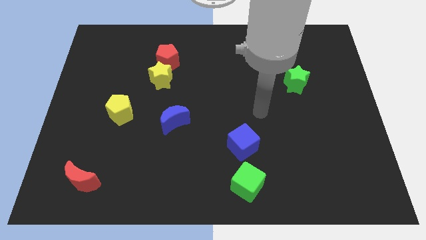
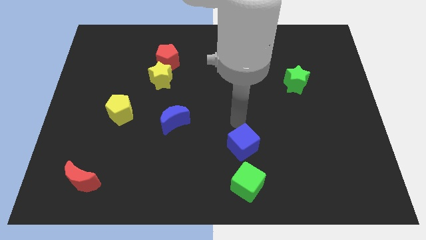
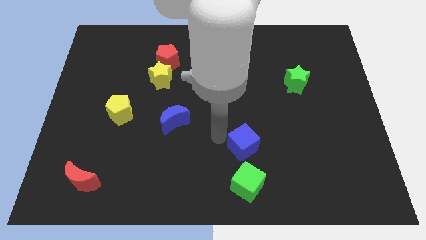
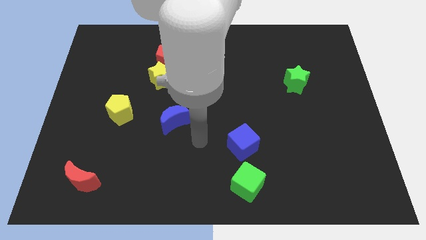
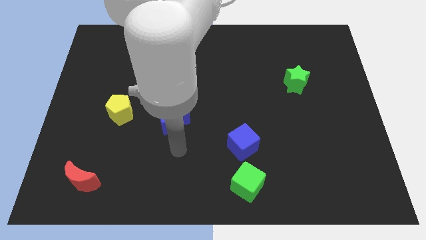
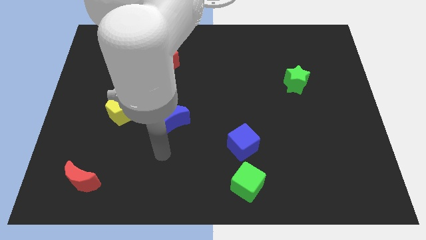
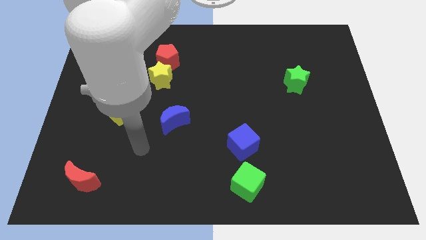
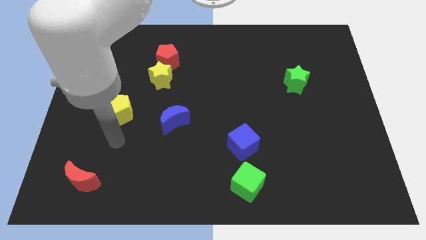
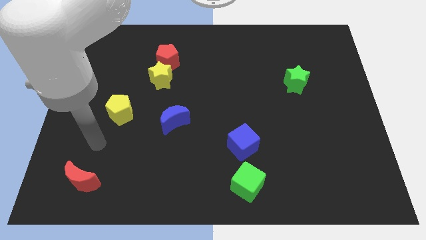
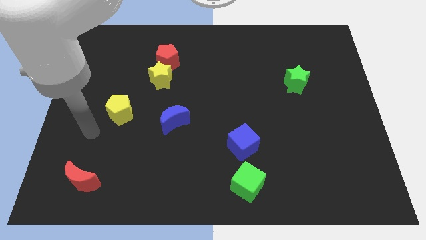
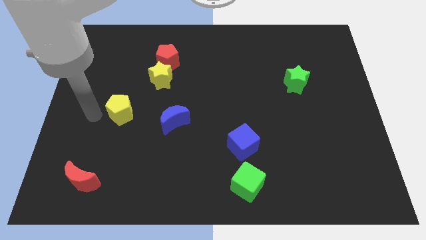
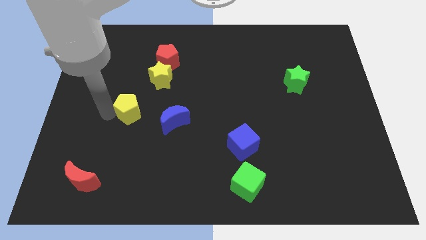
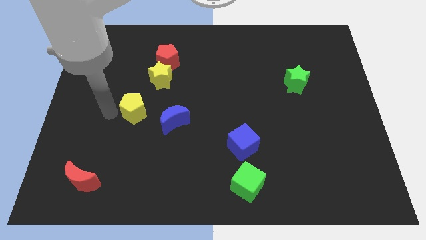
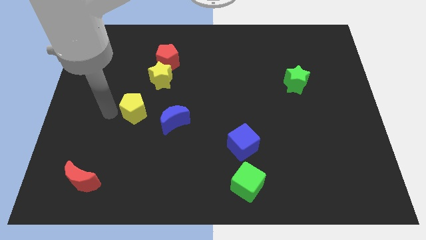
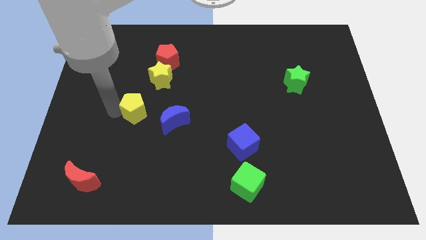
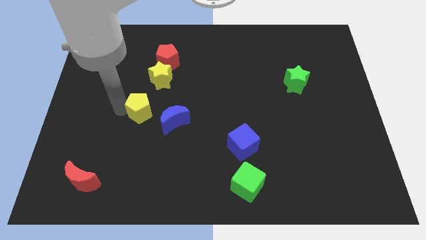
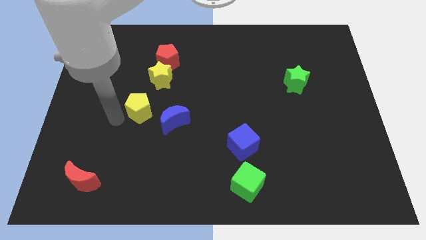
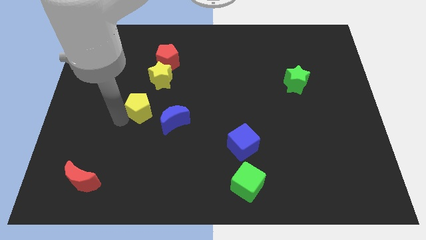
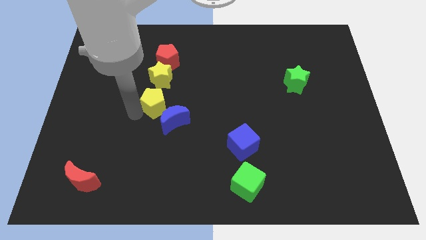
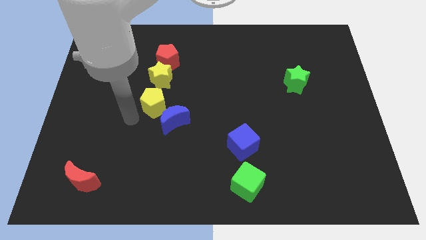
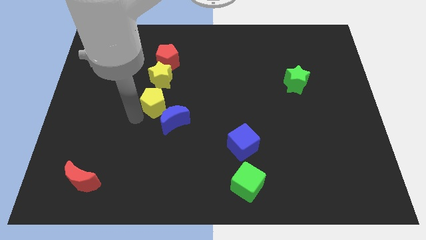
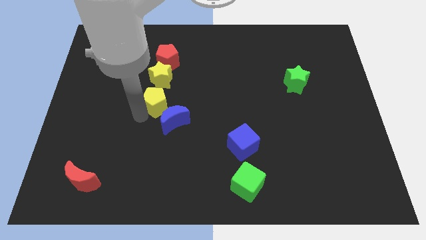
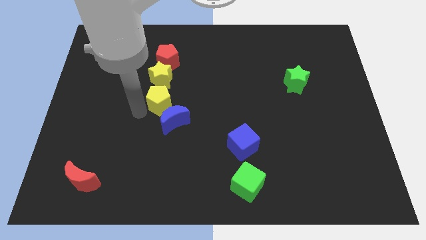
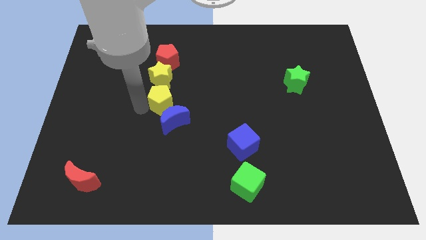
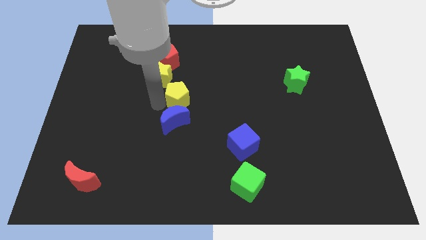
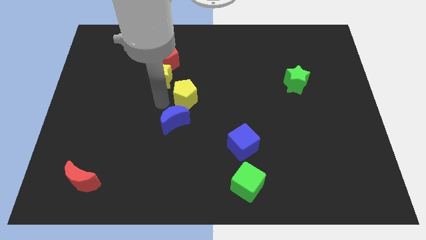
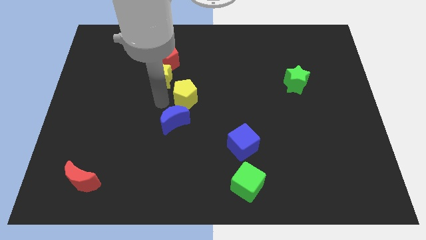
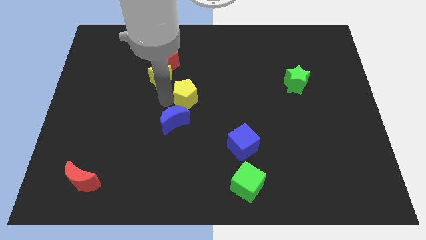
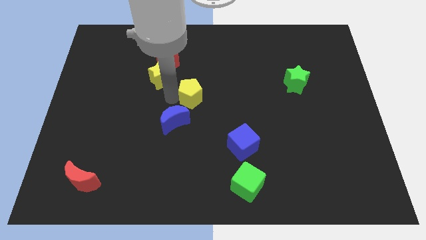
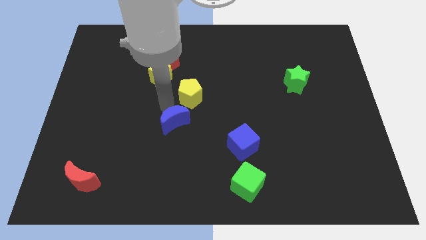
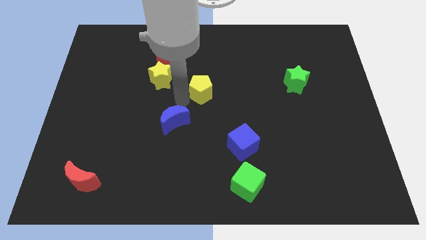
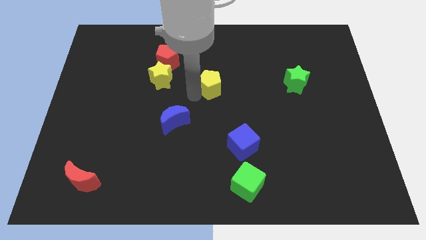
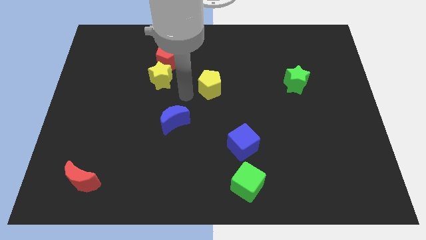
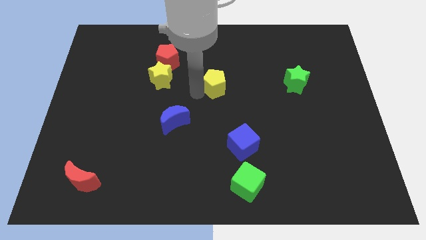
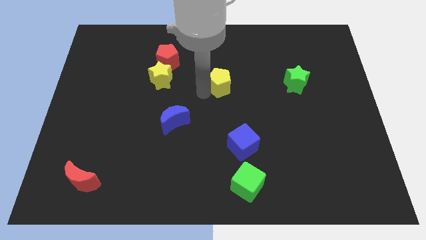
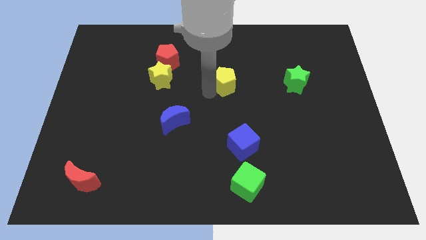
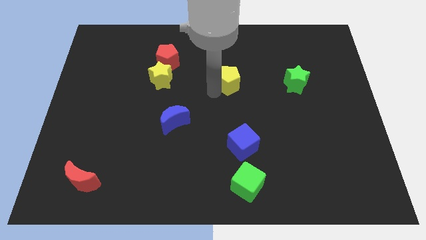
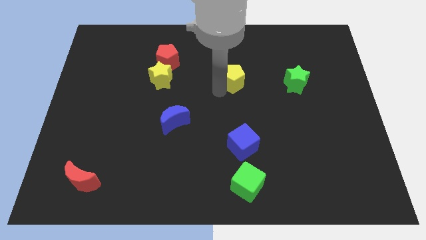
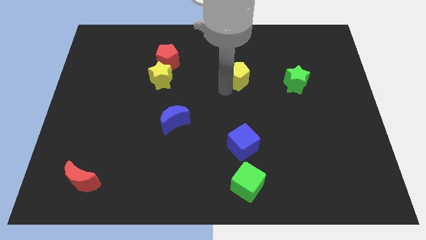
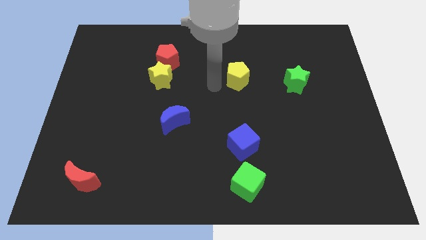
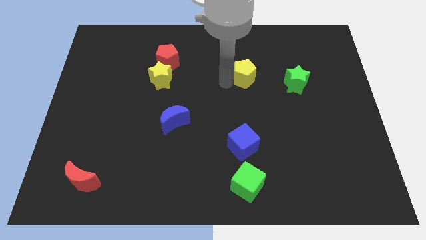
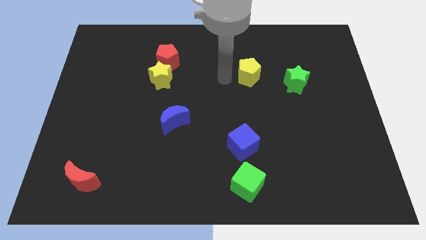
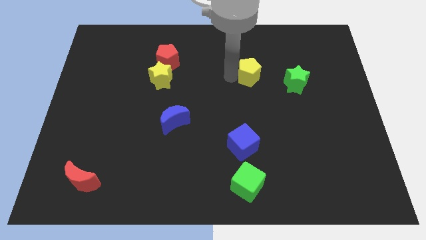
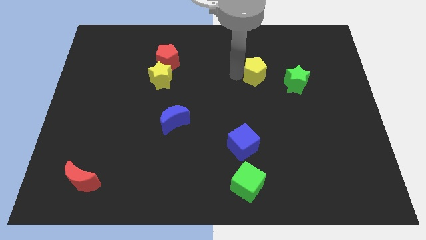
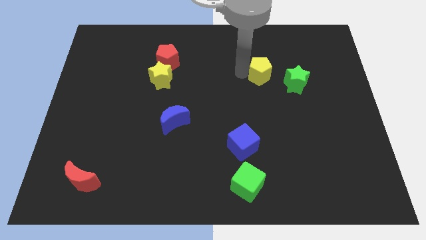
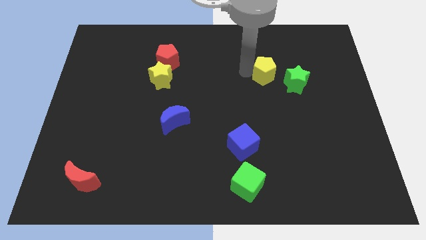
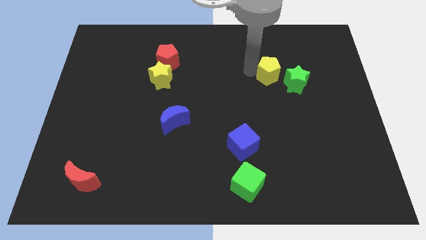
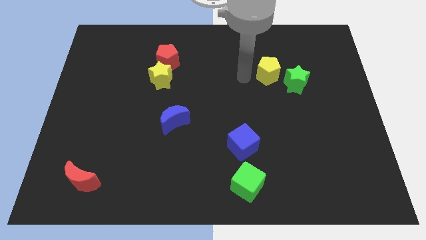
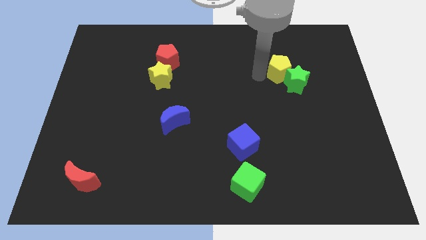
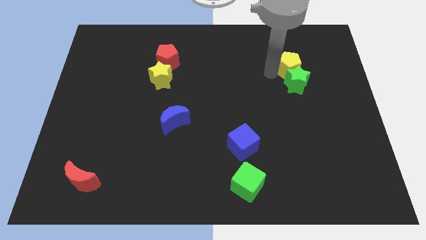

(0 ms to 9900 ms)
slide the yellow pentagon diagonally up and to the right of the green star

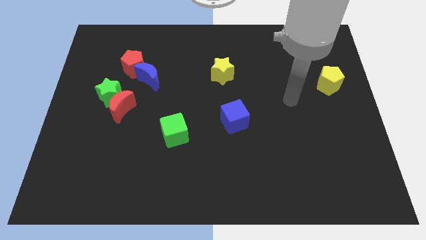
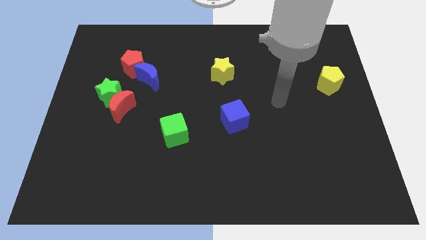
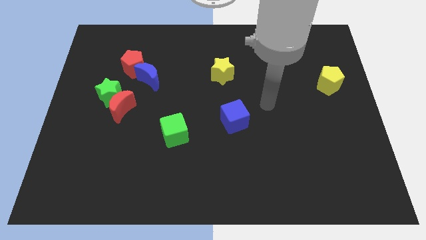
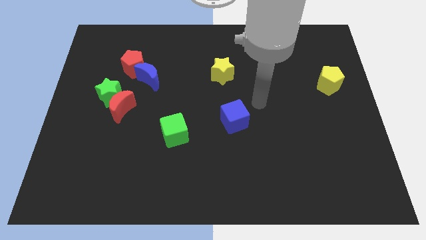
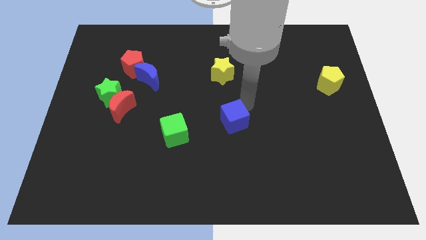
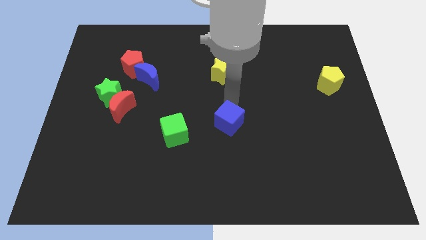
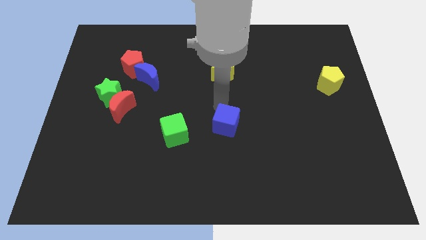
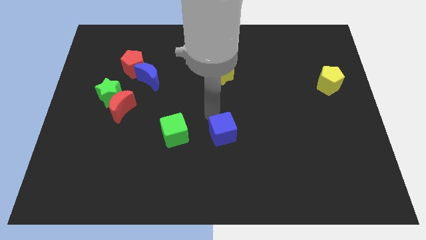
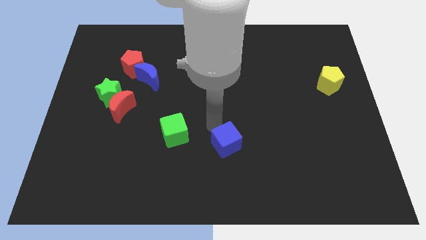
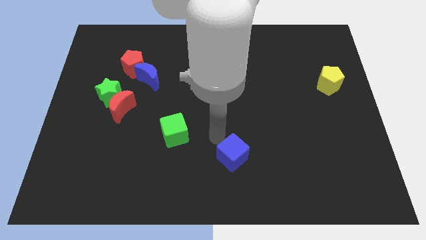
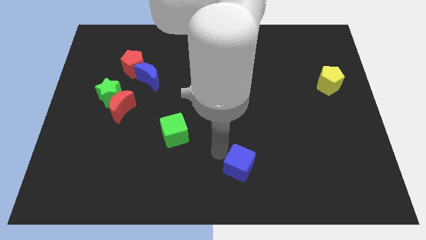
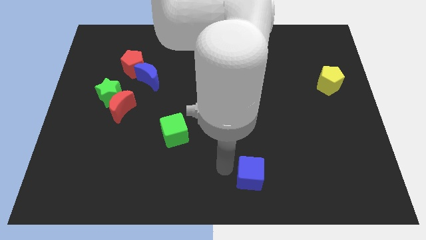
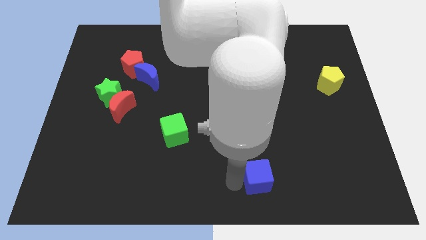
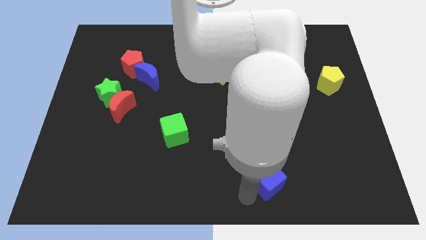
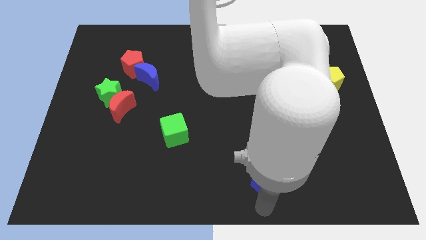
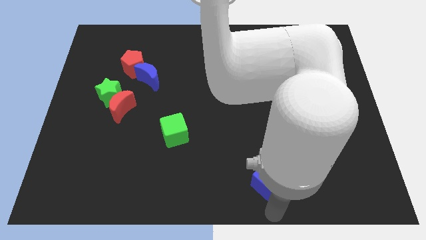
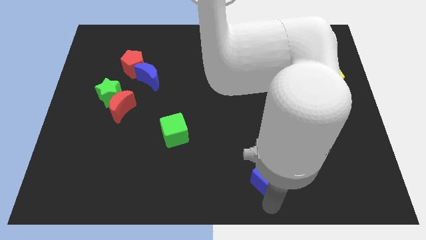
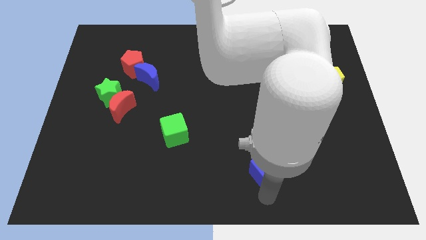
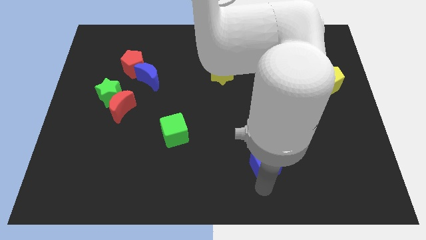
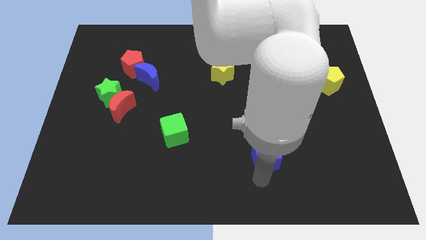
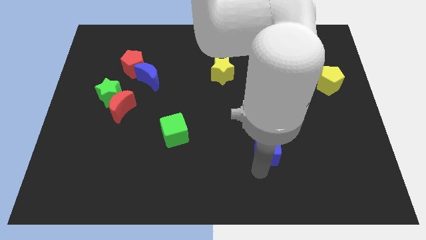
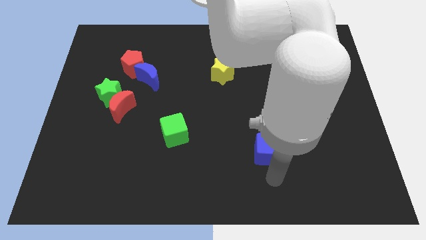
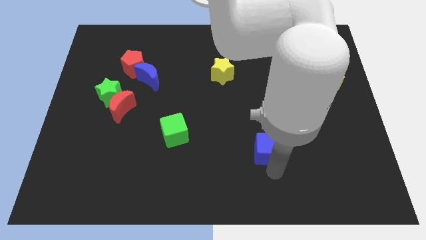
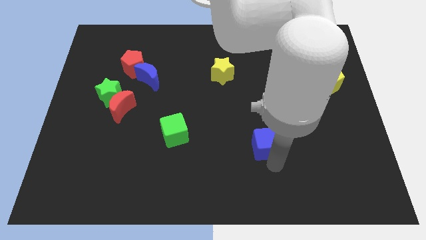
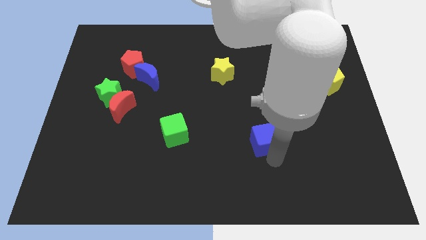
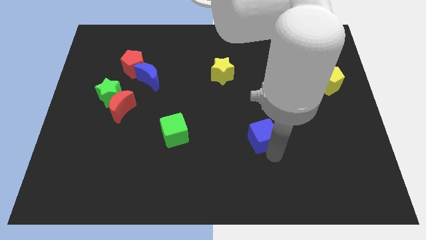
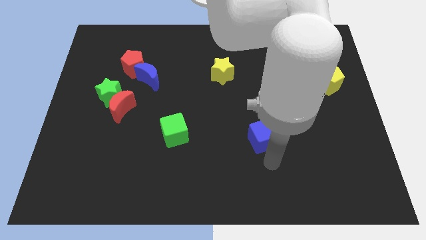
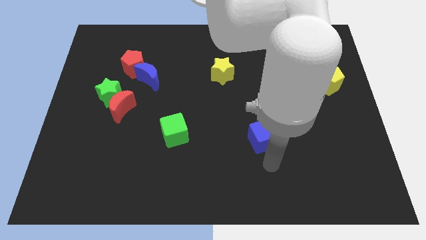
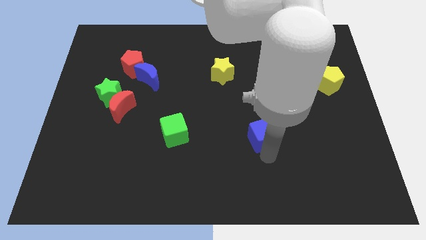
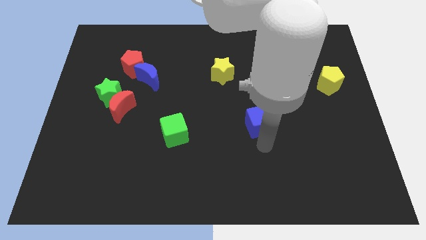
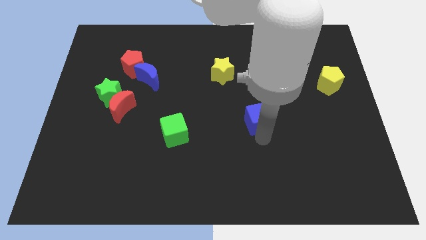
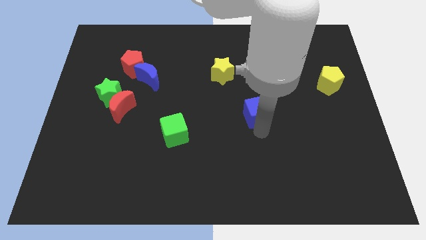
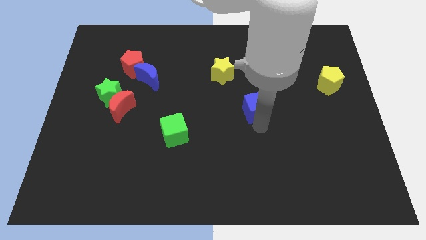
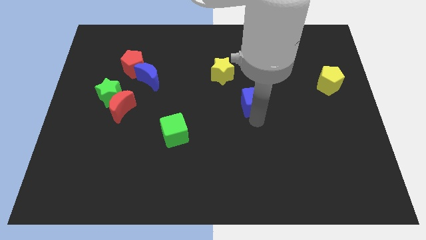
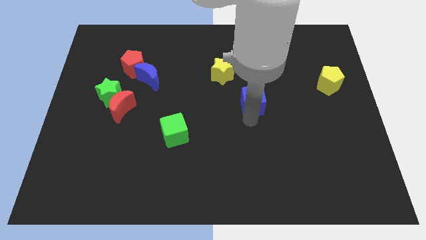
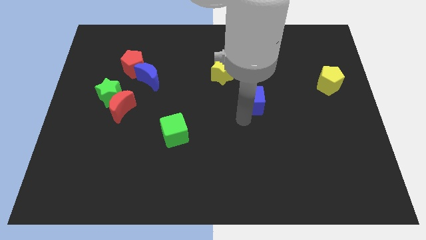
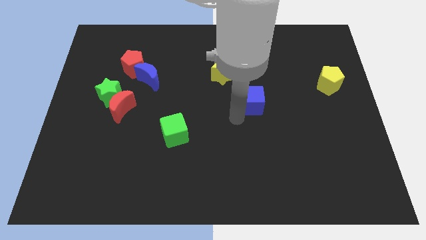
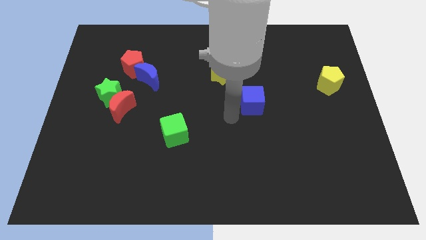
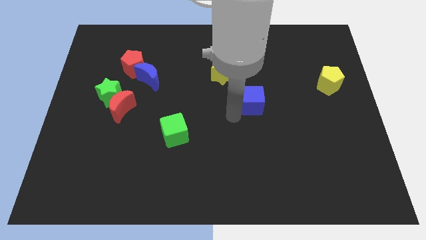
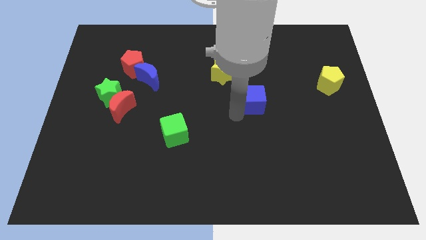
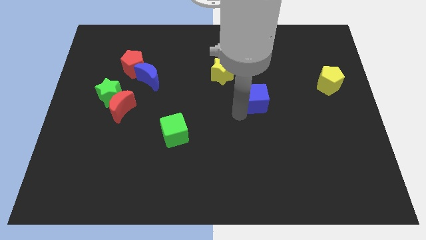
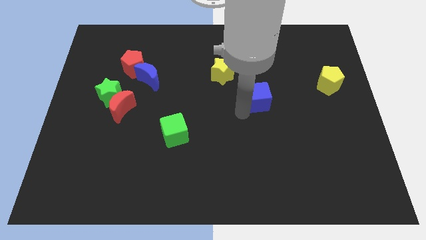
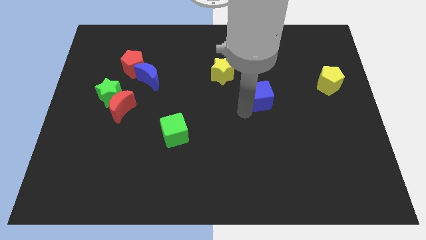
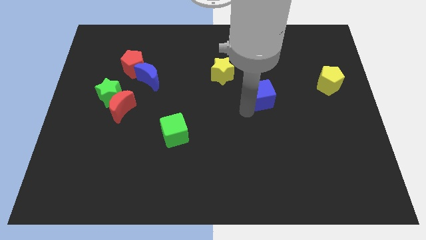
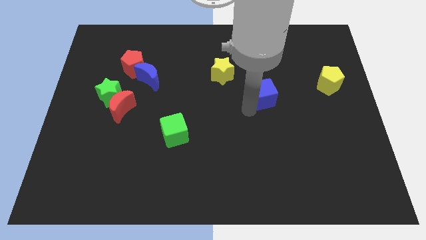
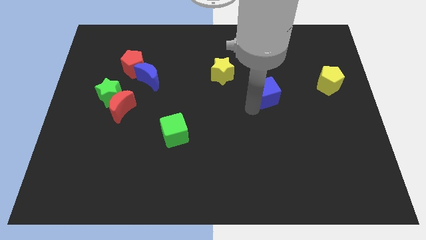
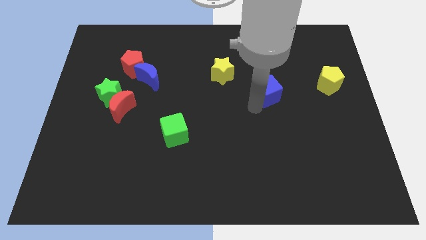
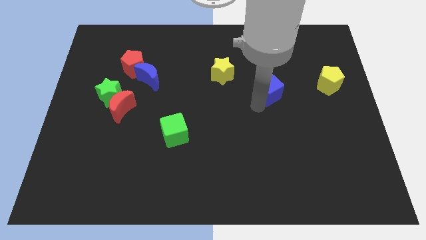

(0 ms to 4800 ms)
slide the blue cube to the left of the yellow pentagon
